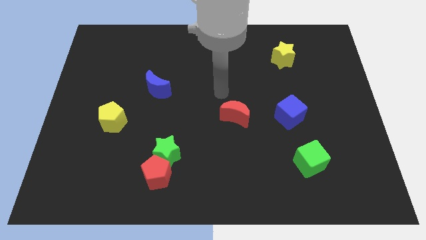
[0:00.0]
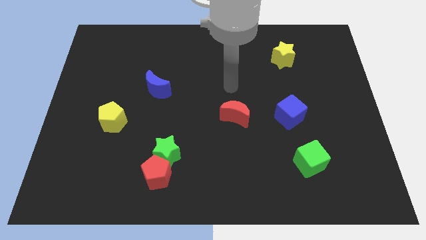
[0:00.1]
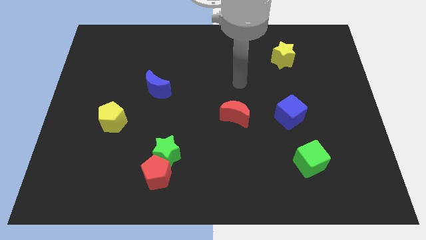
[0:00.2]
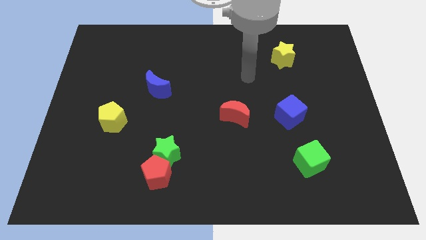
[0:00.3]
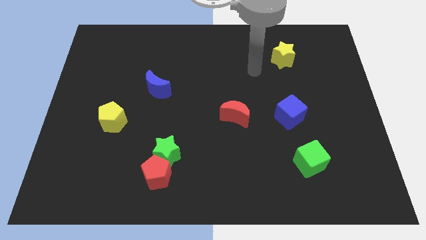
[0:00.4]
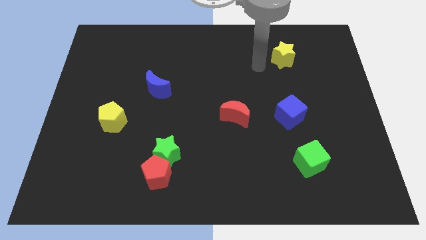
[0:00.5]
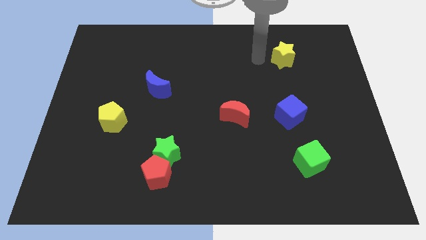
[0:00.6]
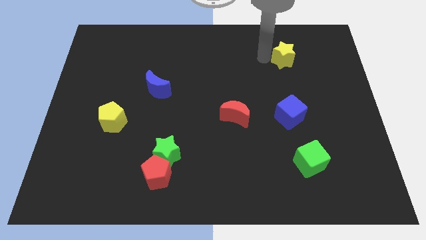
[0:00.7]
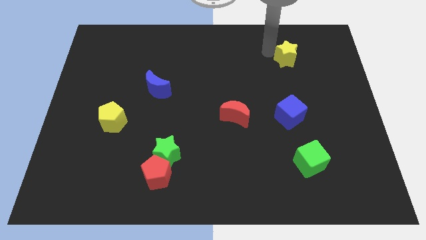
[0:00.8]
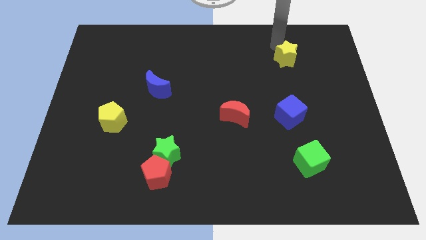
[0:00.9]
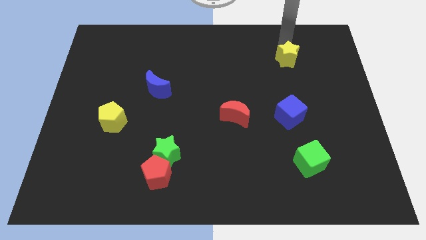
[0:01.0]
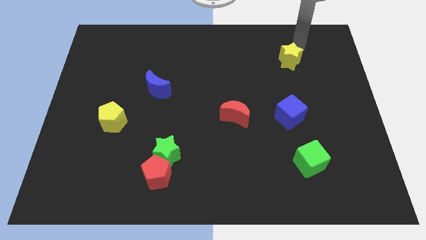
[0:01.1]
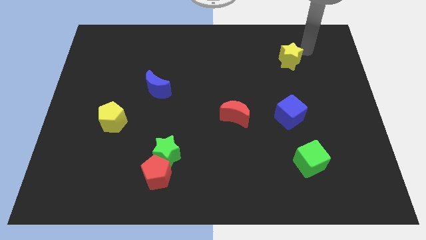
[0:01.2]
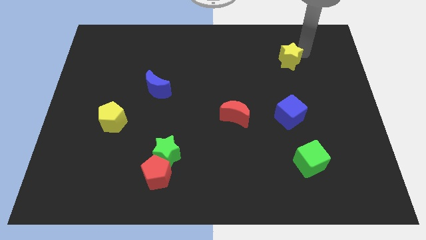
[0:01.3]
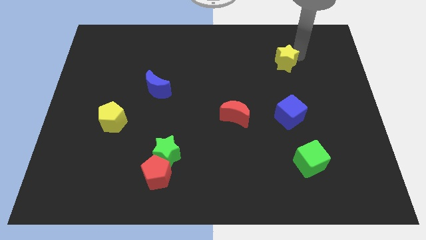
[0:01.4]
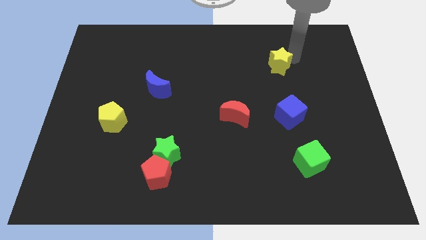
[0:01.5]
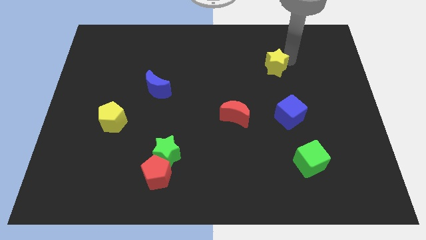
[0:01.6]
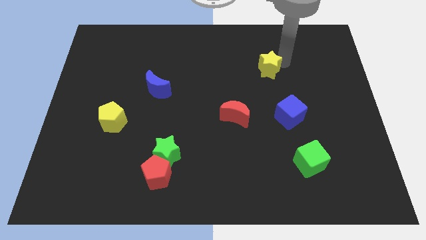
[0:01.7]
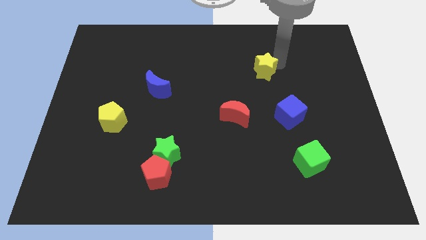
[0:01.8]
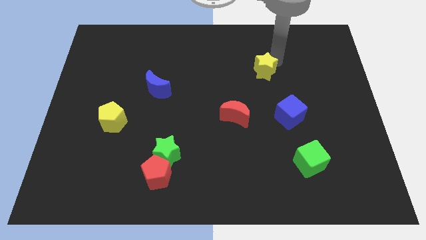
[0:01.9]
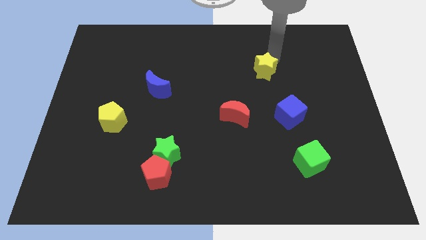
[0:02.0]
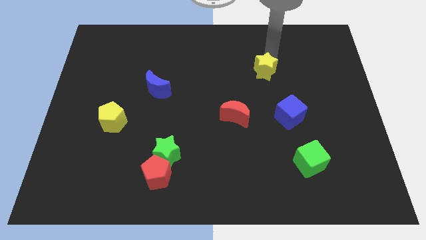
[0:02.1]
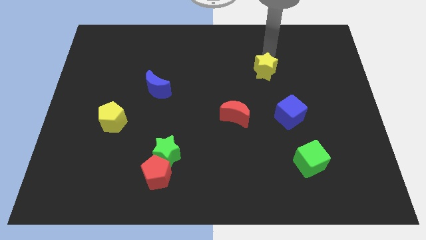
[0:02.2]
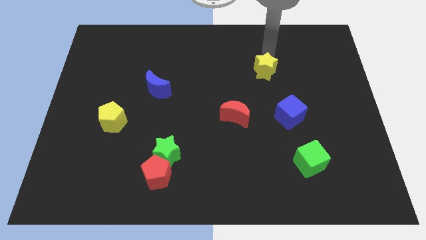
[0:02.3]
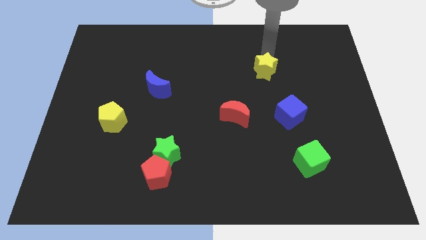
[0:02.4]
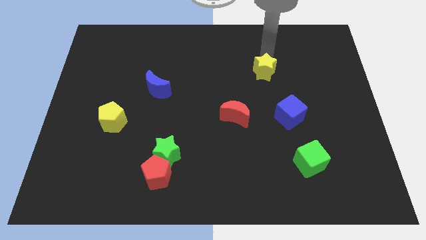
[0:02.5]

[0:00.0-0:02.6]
push the yellow star down and left diagonally slightly

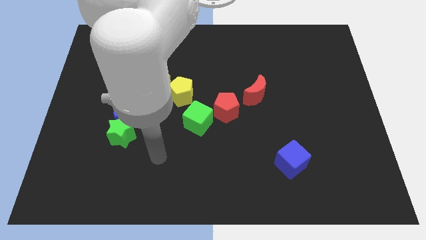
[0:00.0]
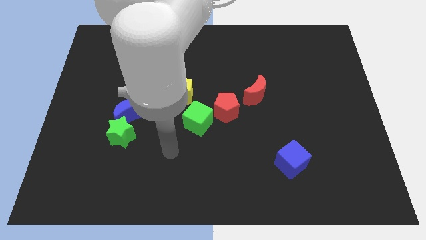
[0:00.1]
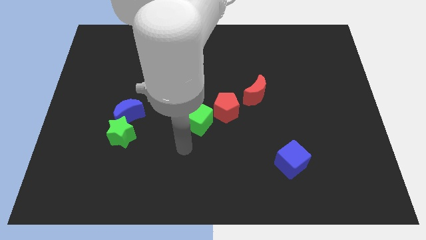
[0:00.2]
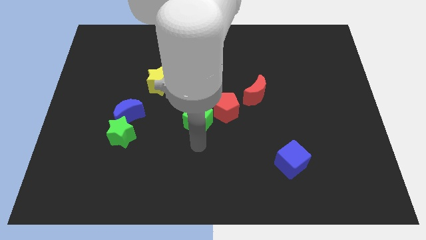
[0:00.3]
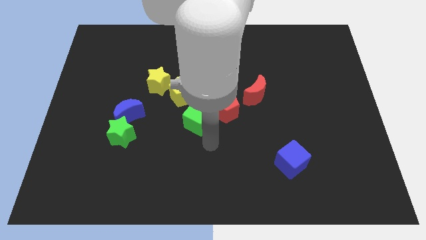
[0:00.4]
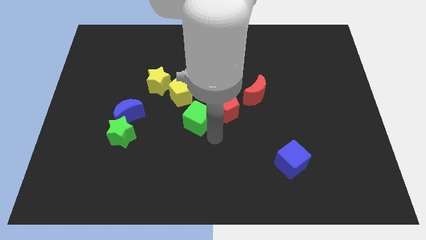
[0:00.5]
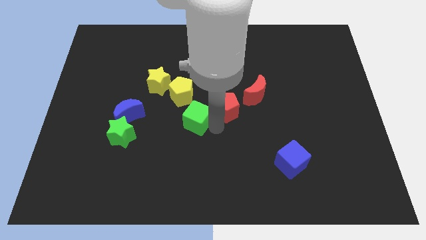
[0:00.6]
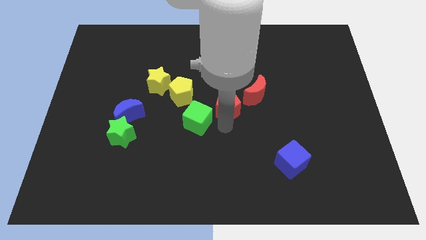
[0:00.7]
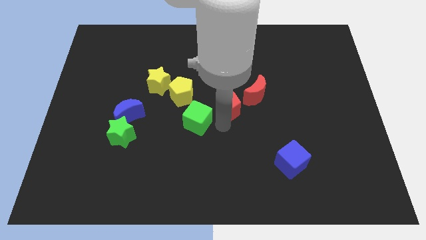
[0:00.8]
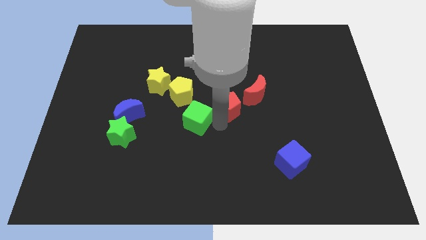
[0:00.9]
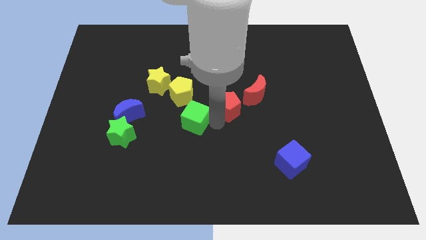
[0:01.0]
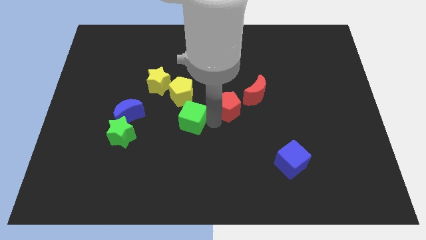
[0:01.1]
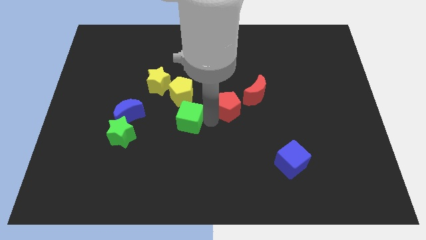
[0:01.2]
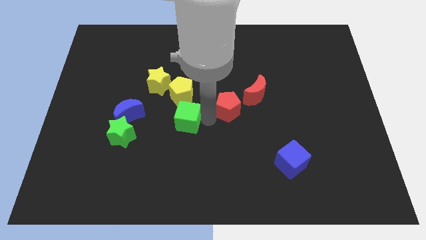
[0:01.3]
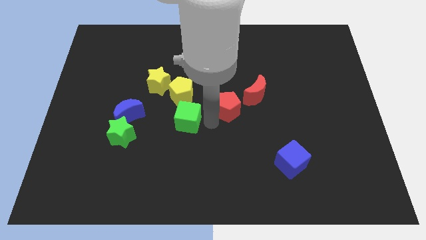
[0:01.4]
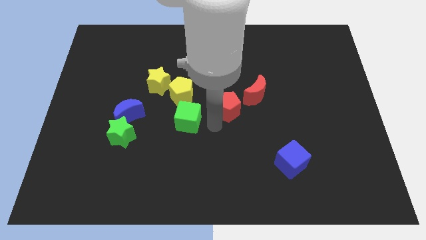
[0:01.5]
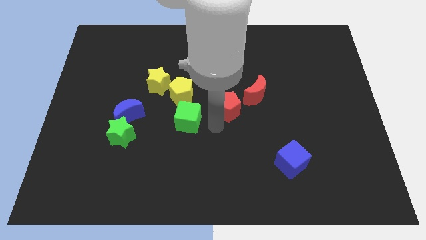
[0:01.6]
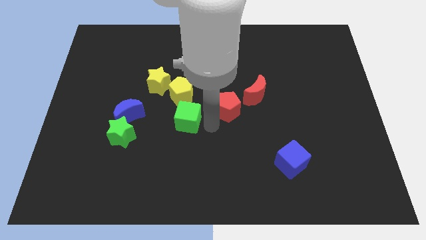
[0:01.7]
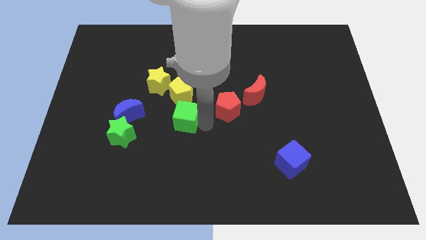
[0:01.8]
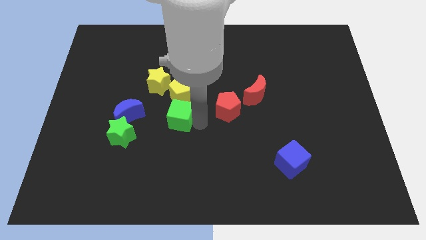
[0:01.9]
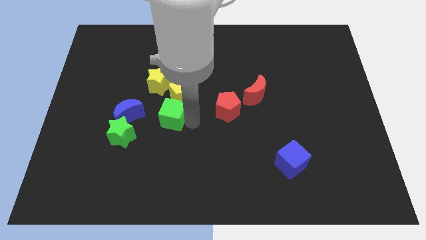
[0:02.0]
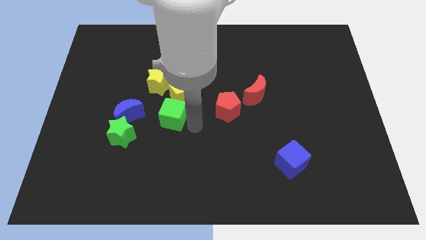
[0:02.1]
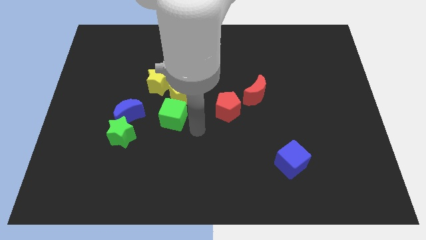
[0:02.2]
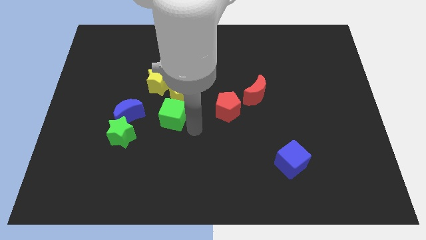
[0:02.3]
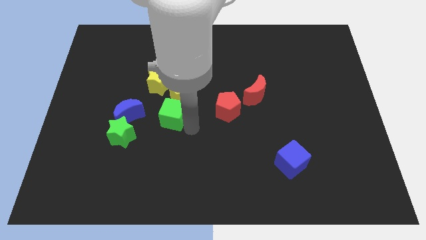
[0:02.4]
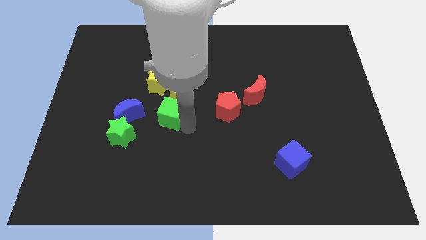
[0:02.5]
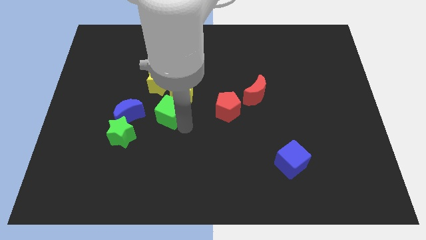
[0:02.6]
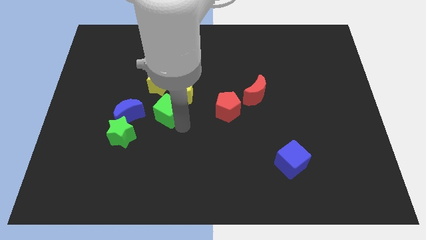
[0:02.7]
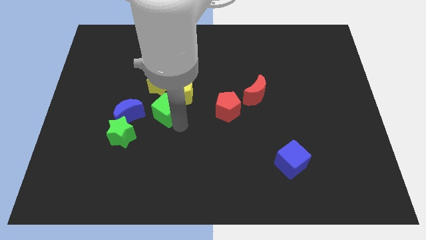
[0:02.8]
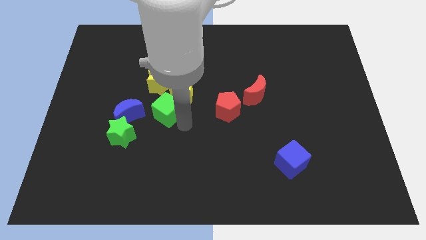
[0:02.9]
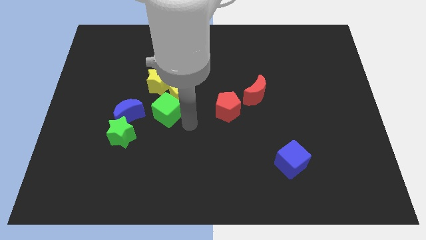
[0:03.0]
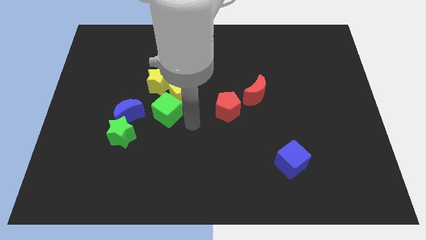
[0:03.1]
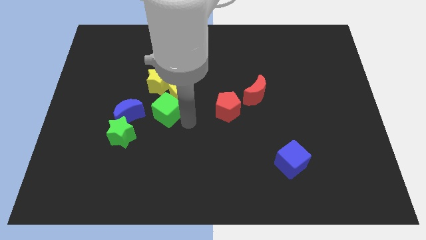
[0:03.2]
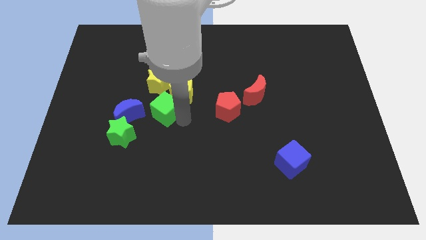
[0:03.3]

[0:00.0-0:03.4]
slide the green cube diagonally up and left a little bit

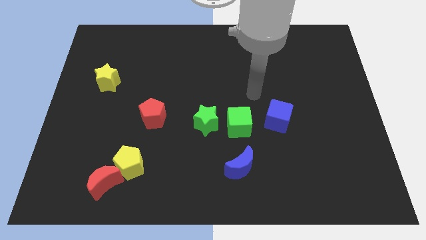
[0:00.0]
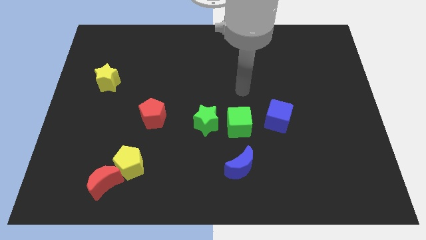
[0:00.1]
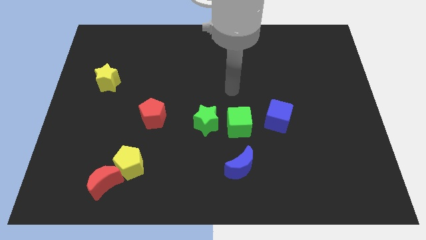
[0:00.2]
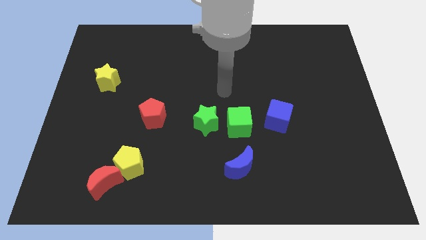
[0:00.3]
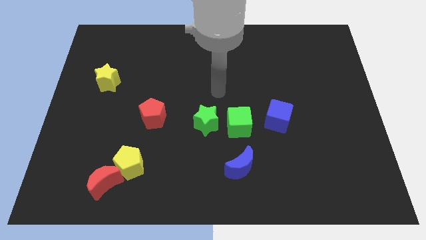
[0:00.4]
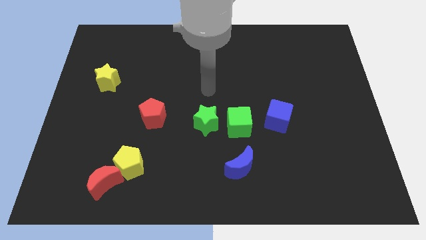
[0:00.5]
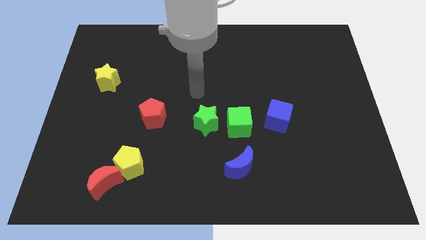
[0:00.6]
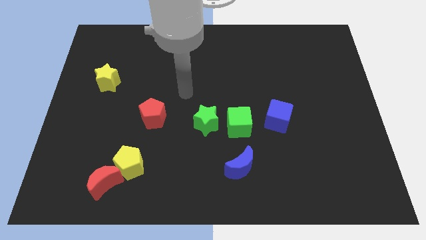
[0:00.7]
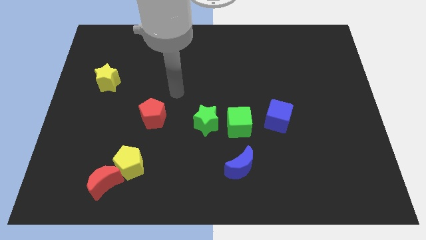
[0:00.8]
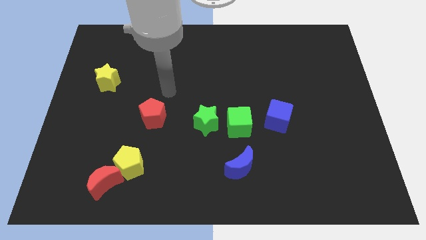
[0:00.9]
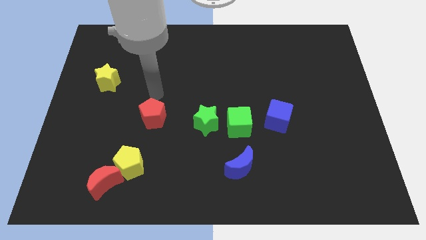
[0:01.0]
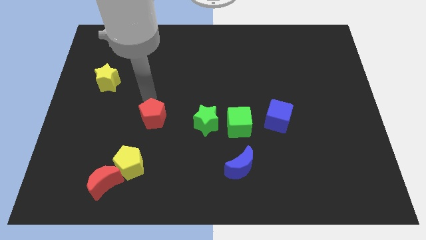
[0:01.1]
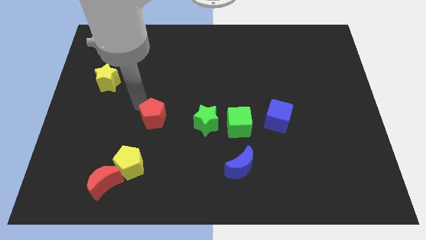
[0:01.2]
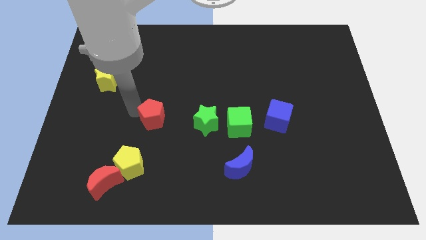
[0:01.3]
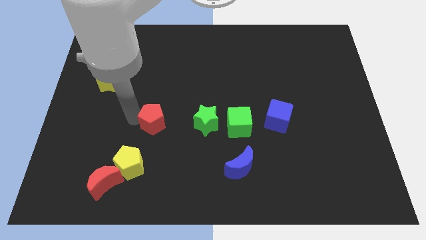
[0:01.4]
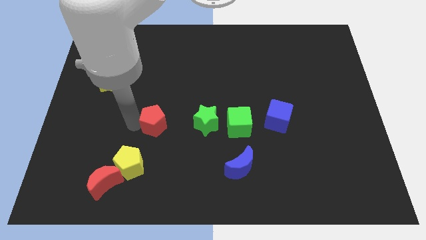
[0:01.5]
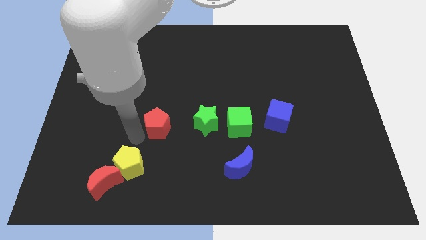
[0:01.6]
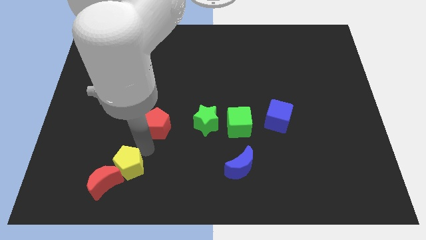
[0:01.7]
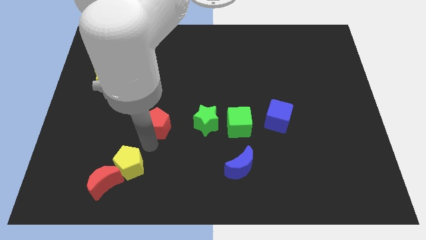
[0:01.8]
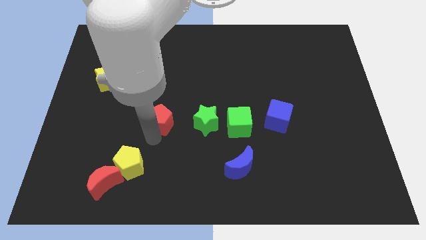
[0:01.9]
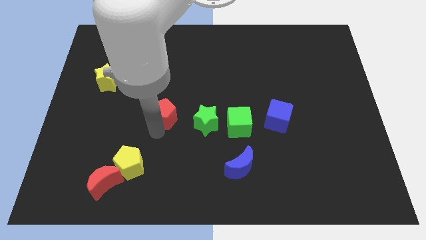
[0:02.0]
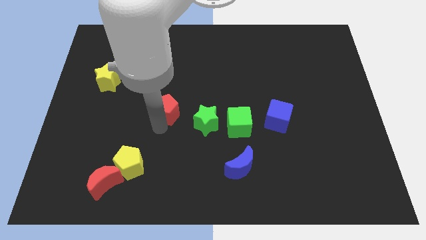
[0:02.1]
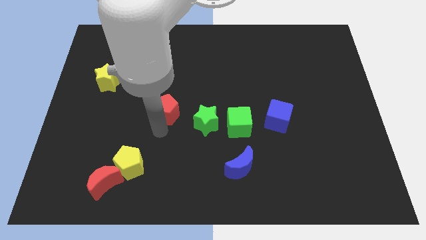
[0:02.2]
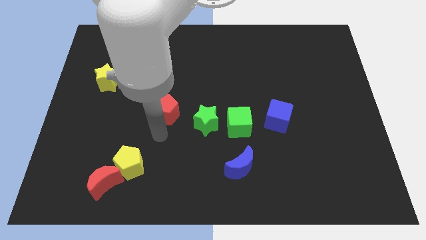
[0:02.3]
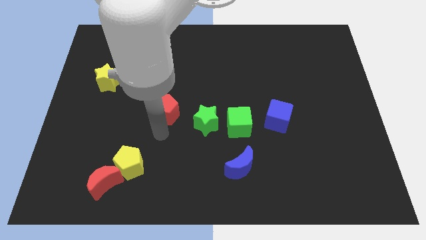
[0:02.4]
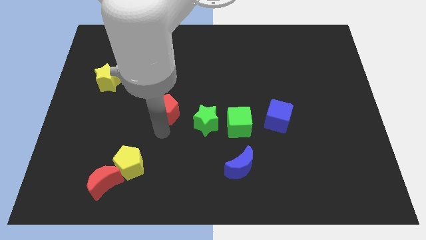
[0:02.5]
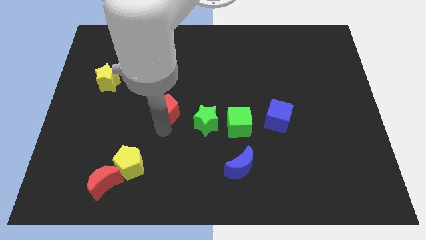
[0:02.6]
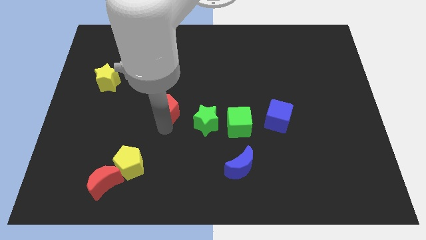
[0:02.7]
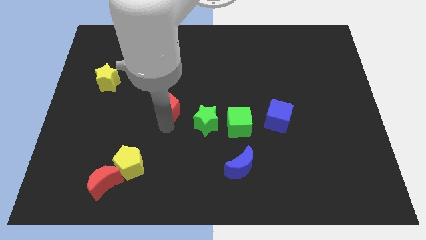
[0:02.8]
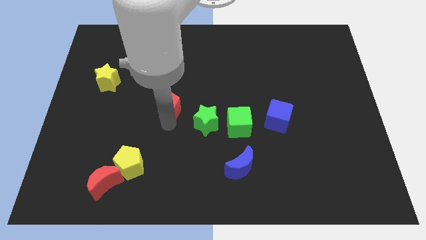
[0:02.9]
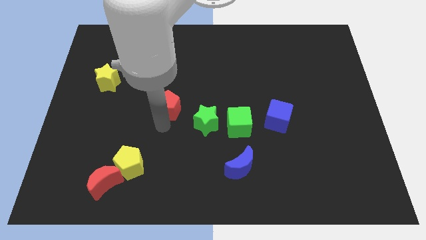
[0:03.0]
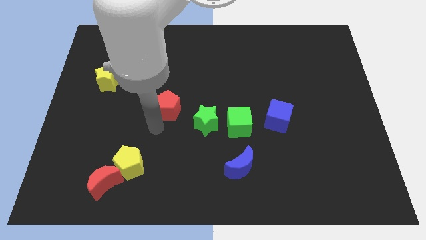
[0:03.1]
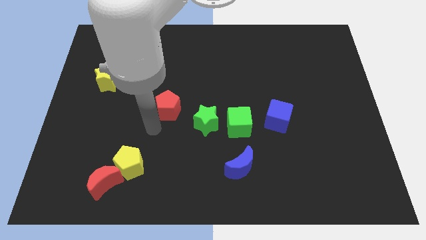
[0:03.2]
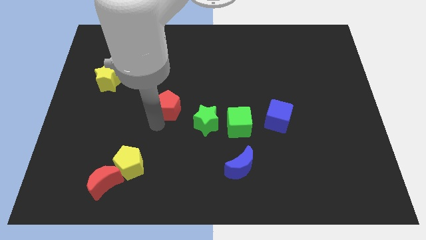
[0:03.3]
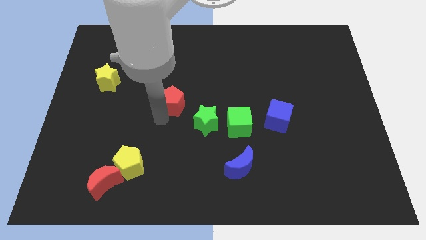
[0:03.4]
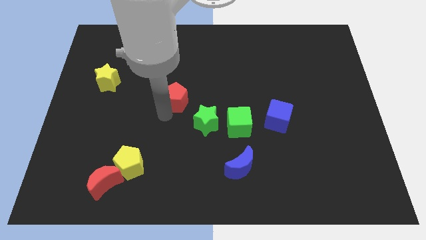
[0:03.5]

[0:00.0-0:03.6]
slide the red pentagon diagonally upwards and right somewhat
